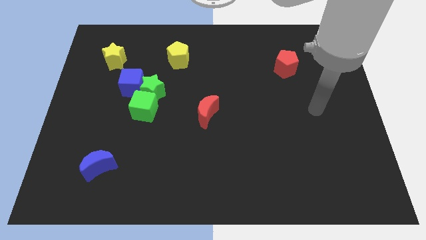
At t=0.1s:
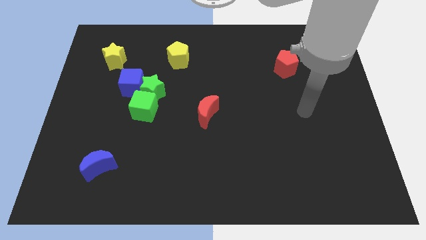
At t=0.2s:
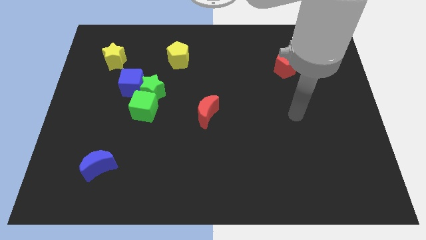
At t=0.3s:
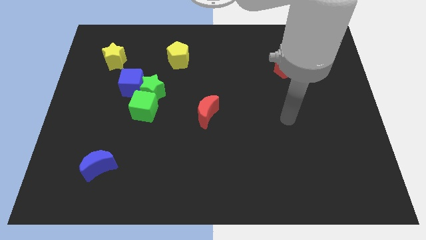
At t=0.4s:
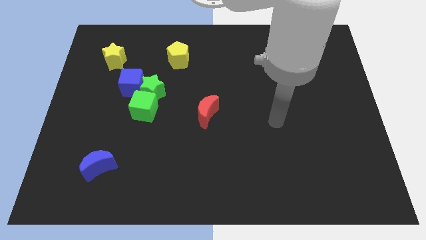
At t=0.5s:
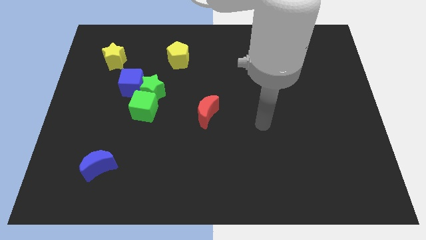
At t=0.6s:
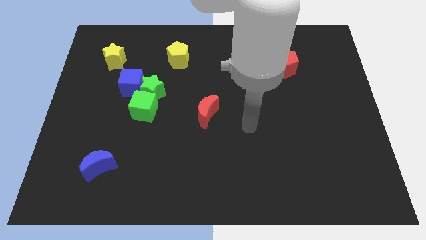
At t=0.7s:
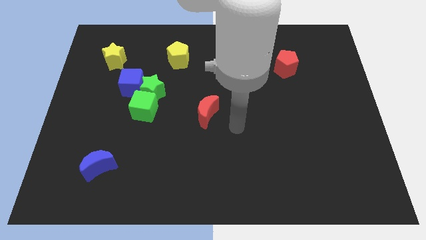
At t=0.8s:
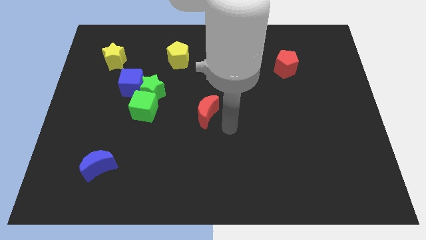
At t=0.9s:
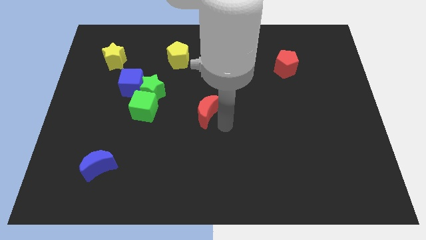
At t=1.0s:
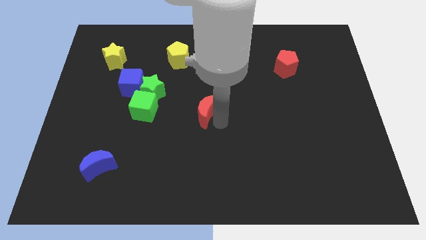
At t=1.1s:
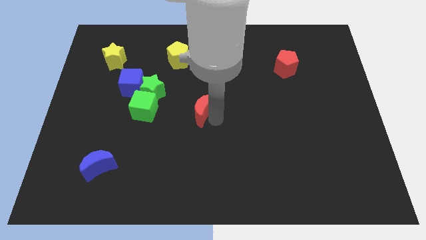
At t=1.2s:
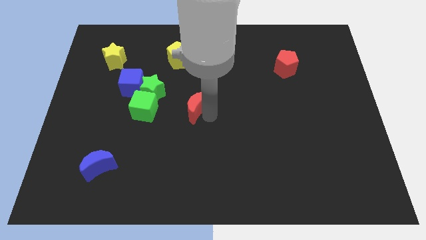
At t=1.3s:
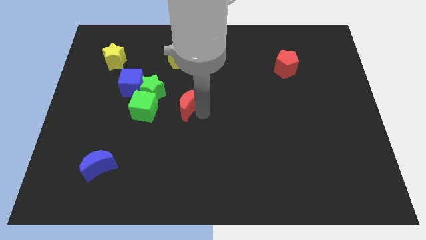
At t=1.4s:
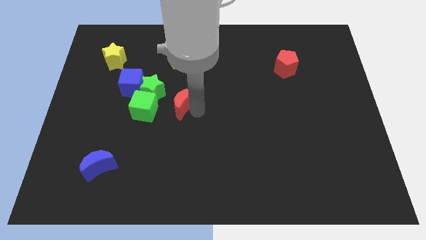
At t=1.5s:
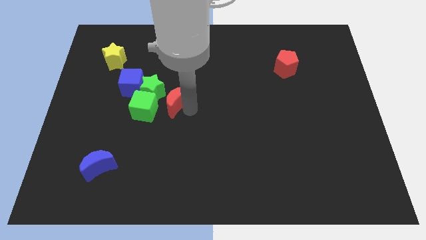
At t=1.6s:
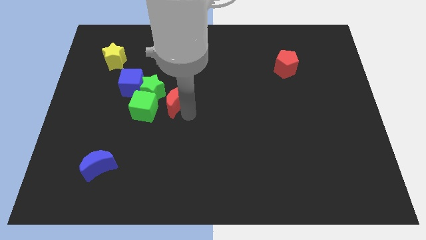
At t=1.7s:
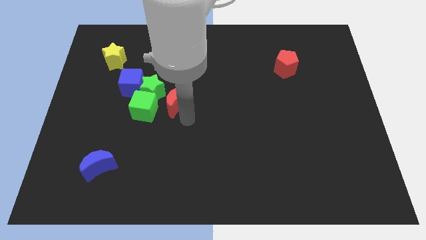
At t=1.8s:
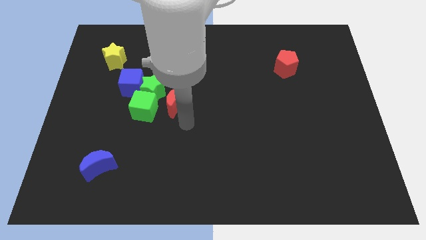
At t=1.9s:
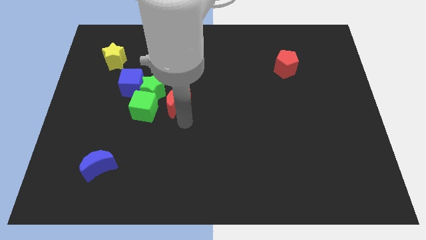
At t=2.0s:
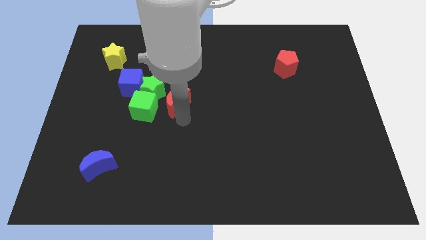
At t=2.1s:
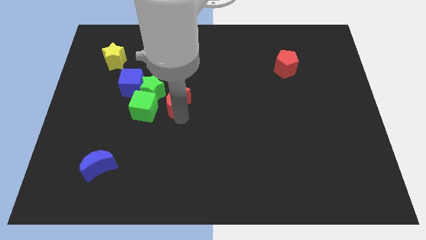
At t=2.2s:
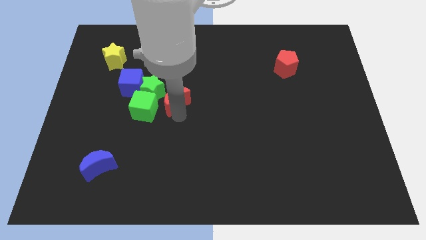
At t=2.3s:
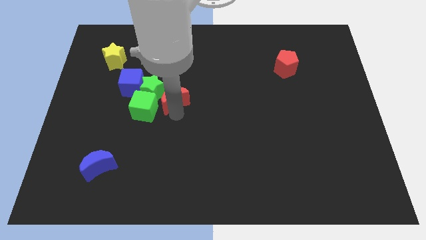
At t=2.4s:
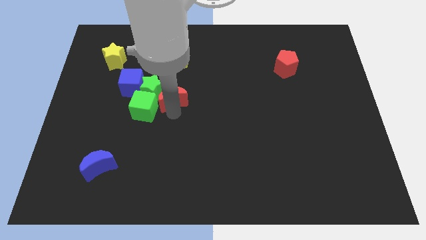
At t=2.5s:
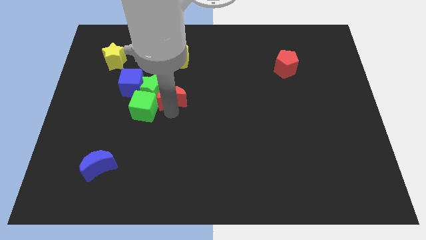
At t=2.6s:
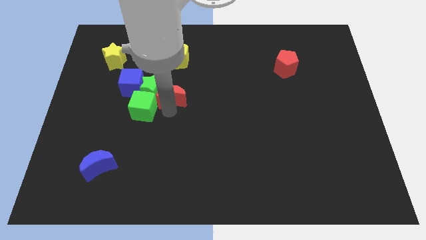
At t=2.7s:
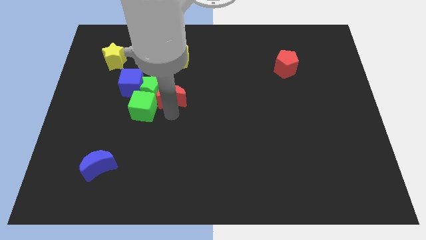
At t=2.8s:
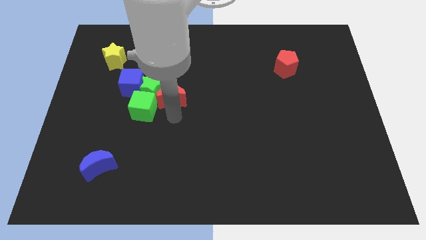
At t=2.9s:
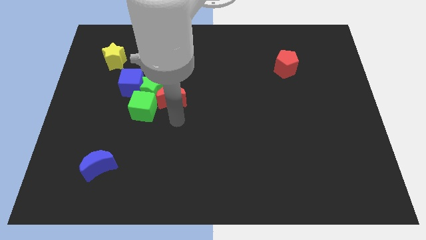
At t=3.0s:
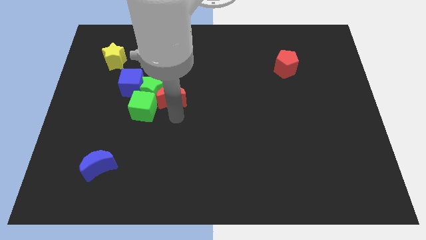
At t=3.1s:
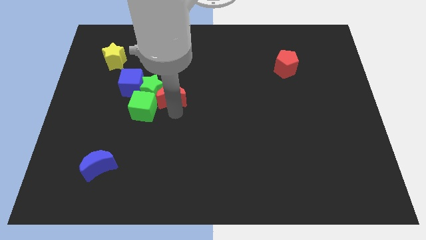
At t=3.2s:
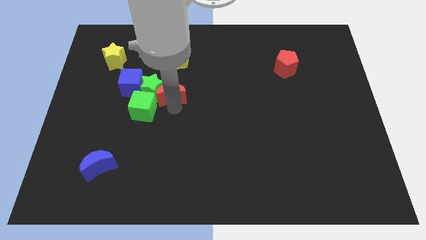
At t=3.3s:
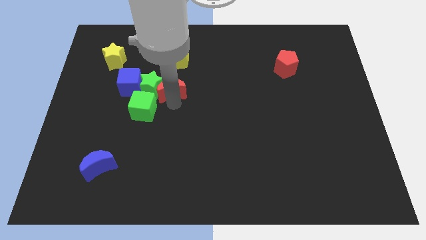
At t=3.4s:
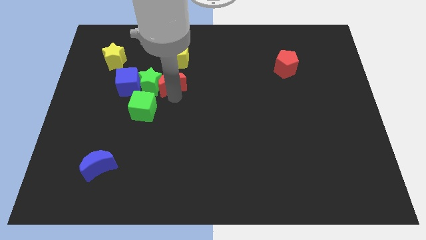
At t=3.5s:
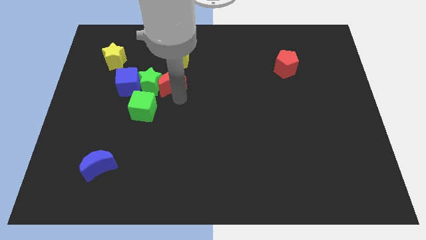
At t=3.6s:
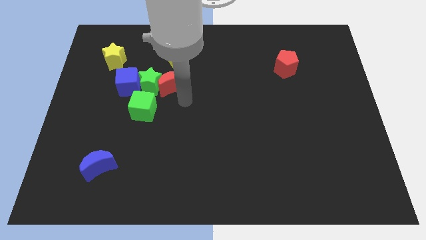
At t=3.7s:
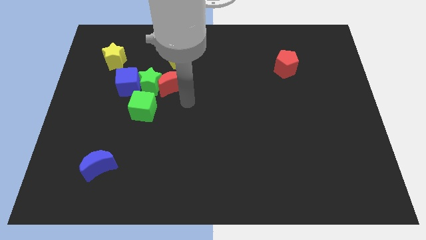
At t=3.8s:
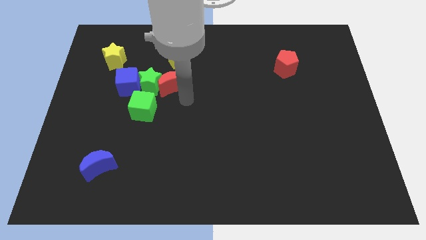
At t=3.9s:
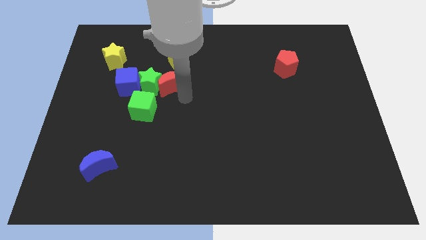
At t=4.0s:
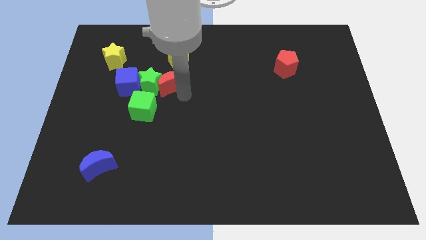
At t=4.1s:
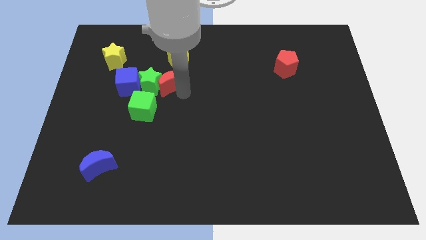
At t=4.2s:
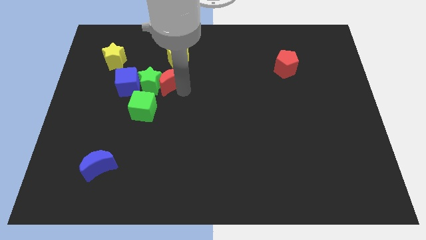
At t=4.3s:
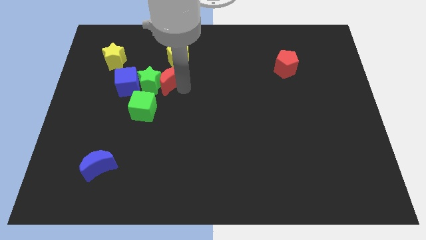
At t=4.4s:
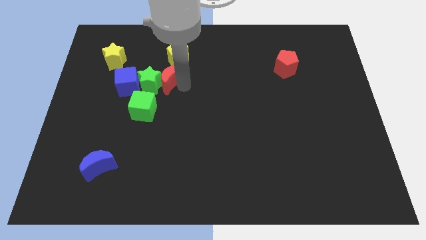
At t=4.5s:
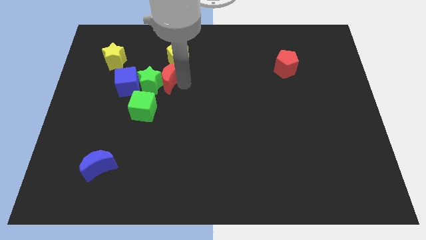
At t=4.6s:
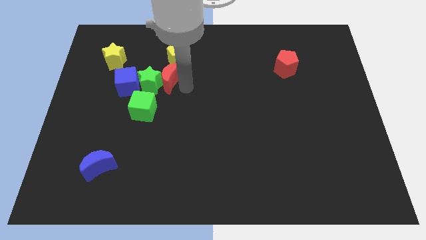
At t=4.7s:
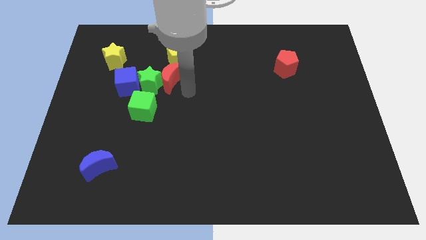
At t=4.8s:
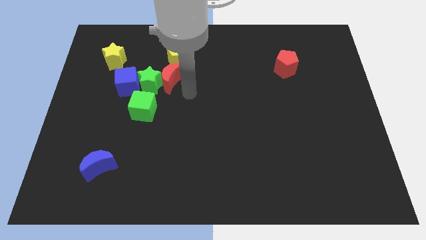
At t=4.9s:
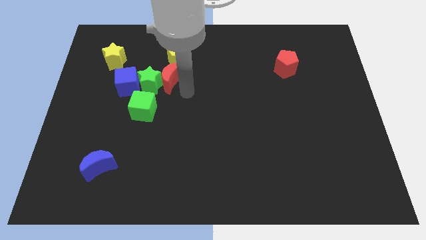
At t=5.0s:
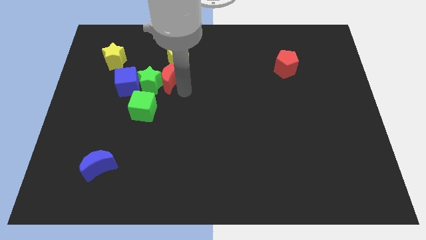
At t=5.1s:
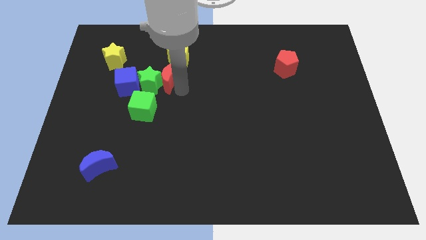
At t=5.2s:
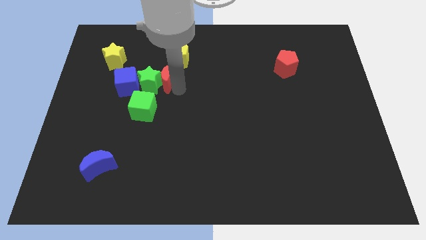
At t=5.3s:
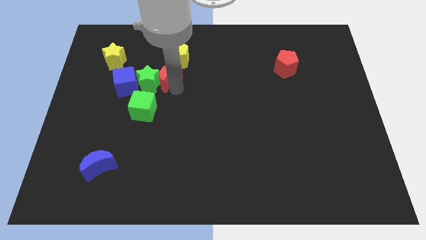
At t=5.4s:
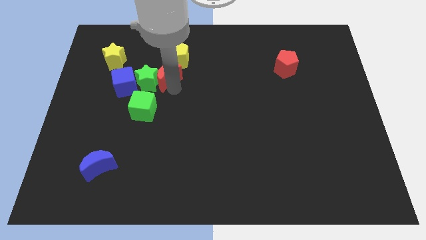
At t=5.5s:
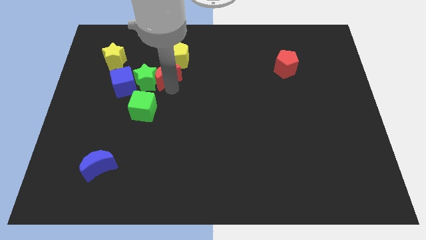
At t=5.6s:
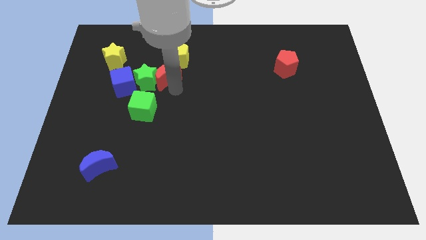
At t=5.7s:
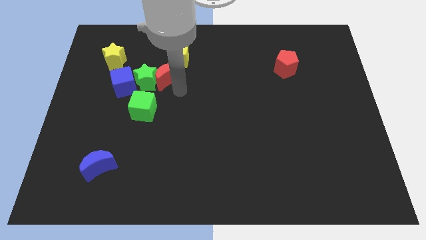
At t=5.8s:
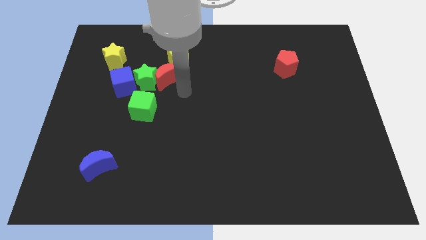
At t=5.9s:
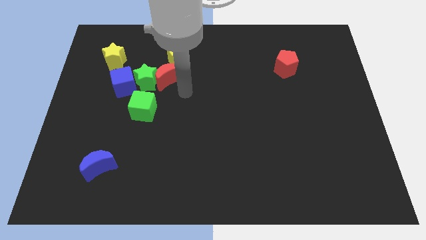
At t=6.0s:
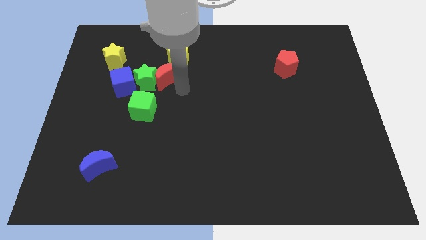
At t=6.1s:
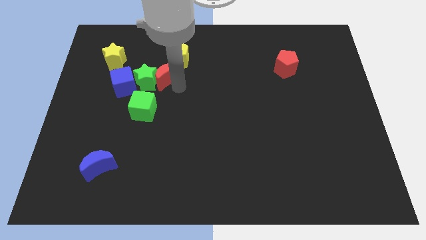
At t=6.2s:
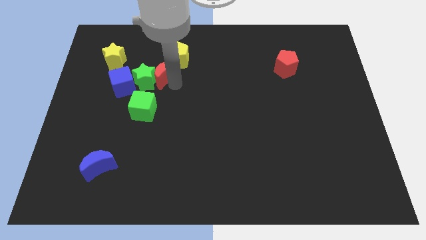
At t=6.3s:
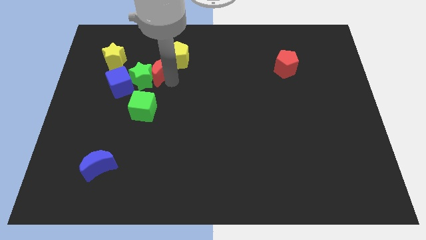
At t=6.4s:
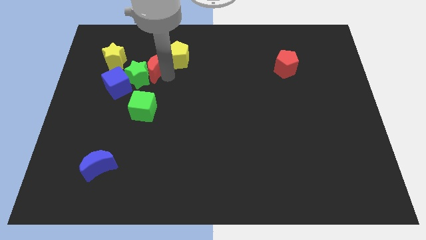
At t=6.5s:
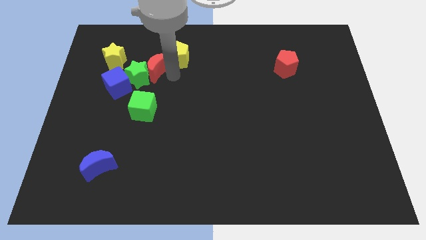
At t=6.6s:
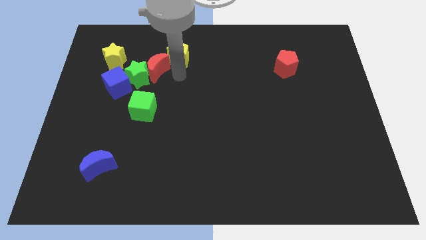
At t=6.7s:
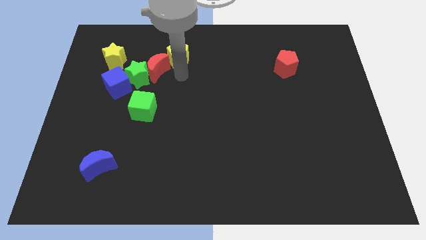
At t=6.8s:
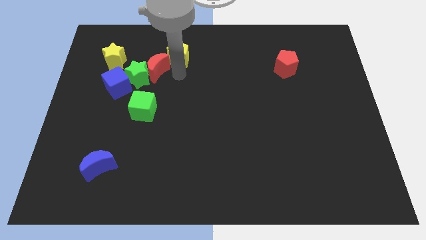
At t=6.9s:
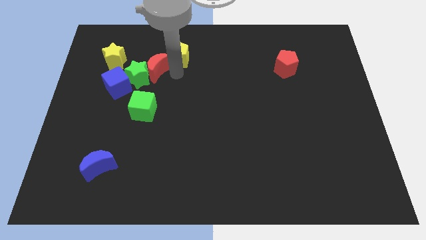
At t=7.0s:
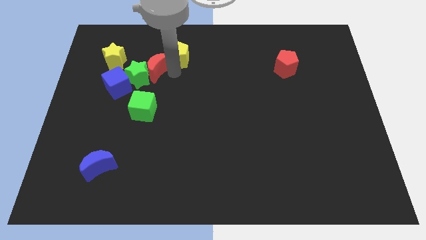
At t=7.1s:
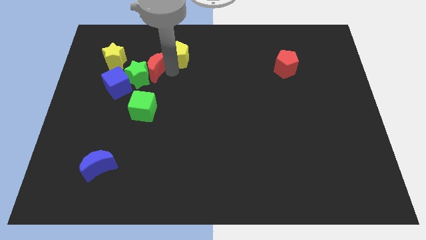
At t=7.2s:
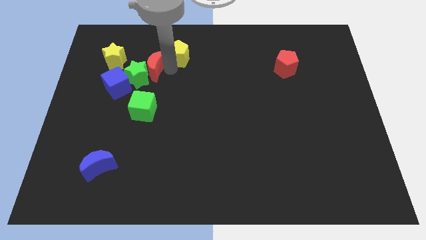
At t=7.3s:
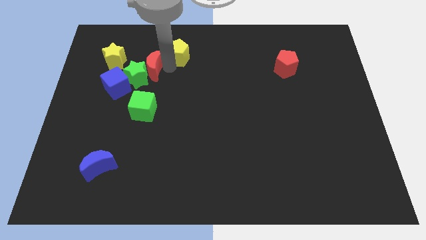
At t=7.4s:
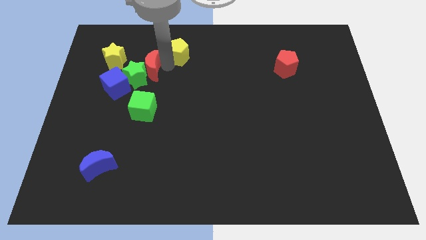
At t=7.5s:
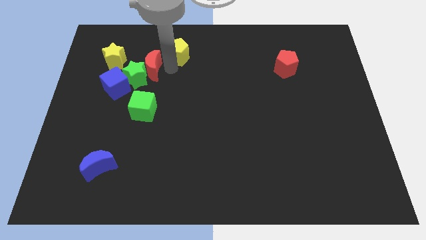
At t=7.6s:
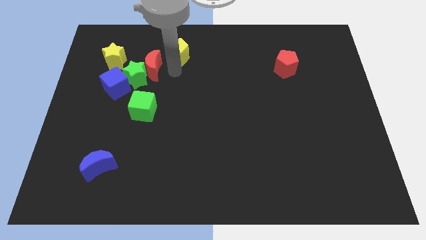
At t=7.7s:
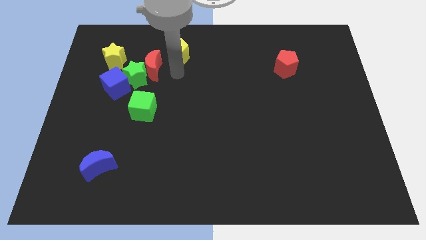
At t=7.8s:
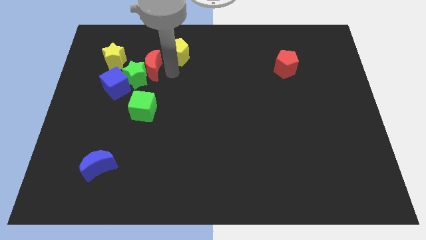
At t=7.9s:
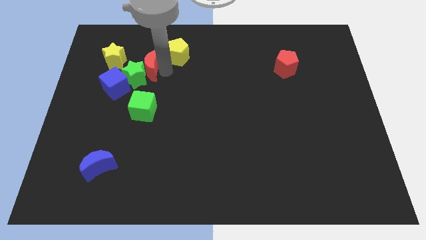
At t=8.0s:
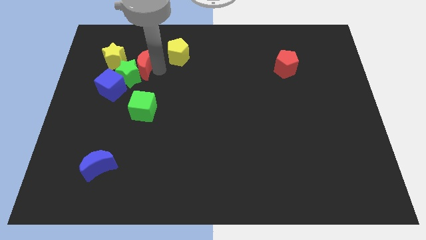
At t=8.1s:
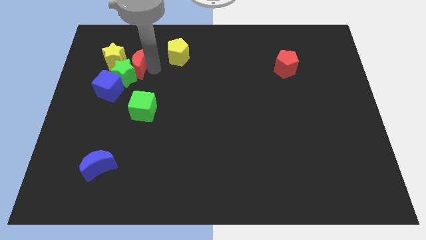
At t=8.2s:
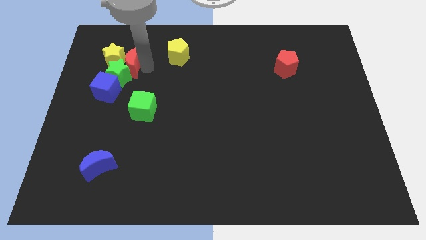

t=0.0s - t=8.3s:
move the red moon towards the yellow star
